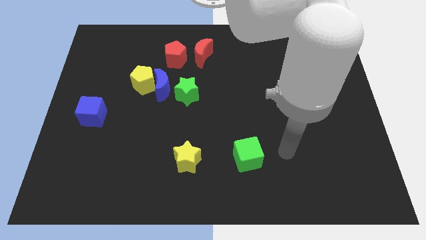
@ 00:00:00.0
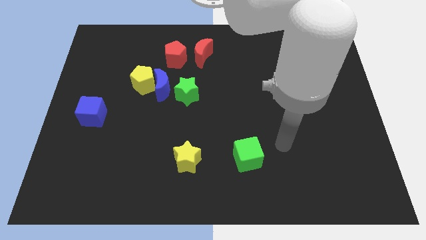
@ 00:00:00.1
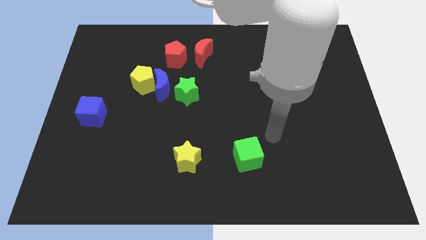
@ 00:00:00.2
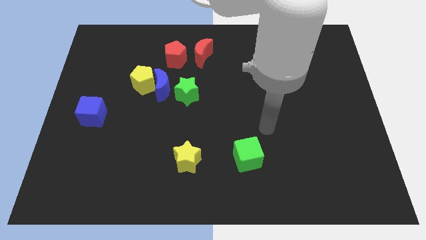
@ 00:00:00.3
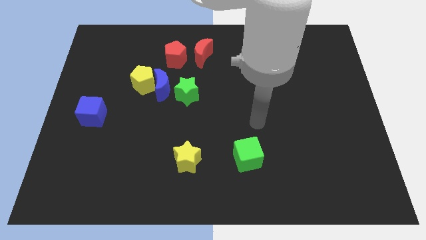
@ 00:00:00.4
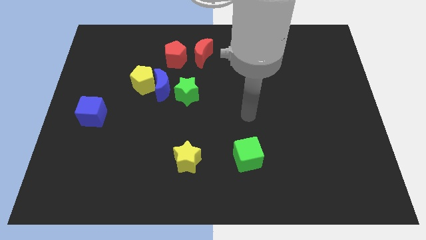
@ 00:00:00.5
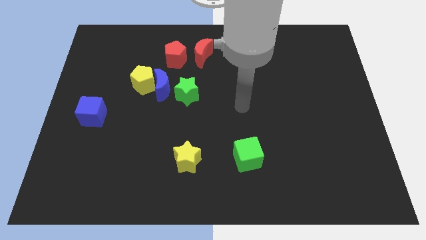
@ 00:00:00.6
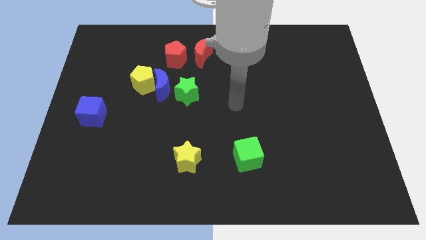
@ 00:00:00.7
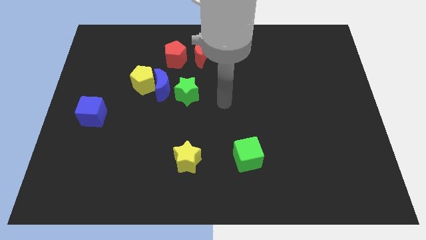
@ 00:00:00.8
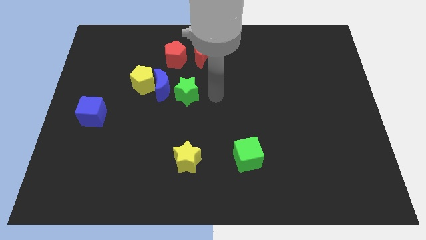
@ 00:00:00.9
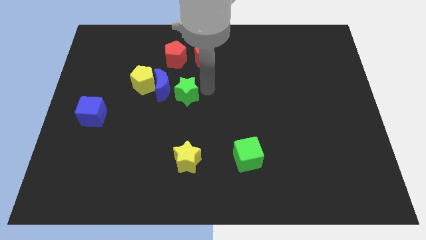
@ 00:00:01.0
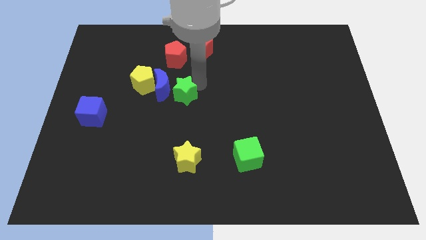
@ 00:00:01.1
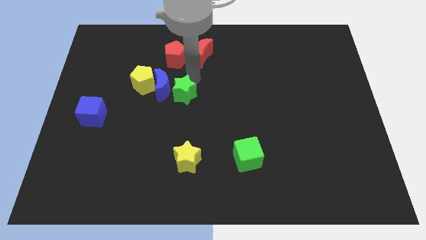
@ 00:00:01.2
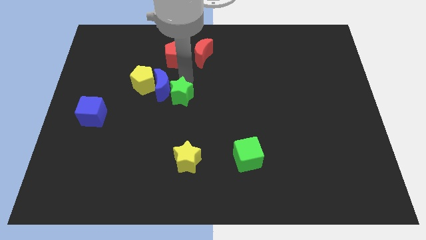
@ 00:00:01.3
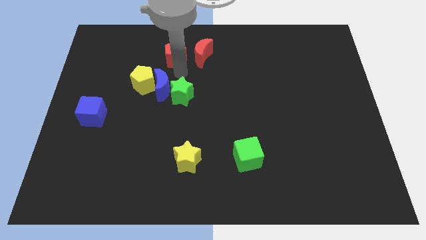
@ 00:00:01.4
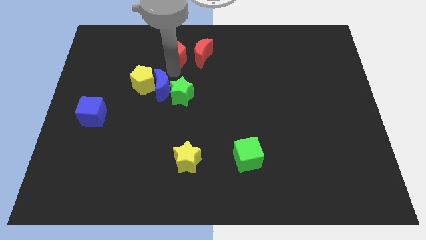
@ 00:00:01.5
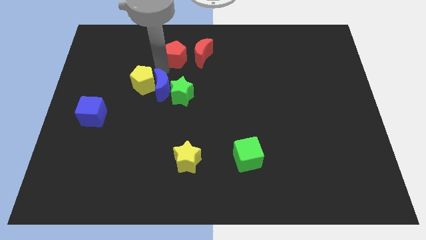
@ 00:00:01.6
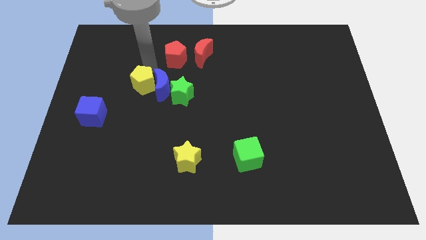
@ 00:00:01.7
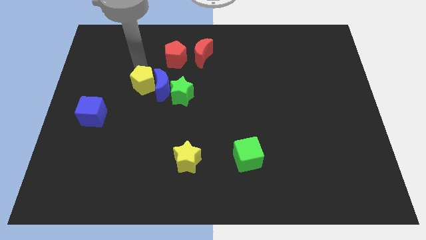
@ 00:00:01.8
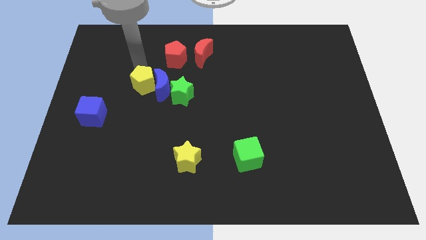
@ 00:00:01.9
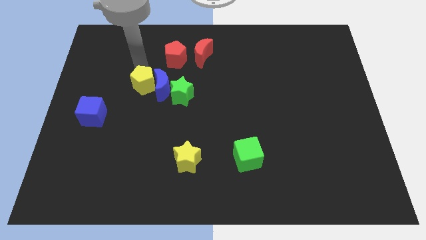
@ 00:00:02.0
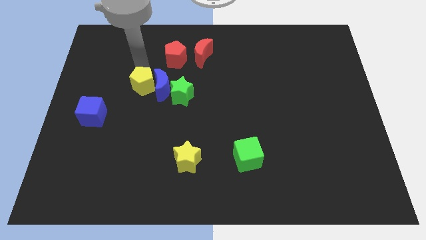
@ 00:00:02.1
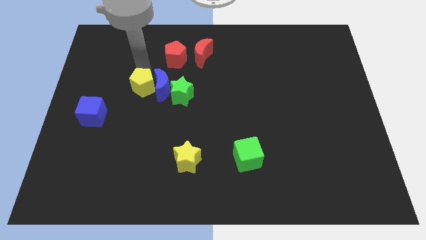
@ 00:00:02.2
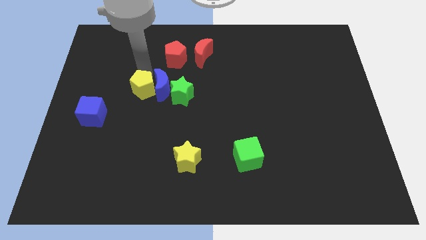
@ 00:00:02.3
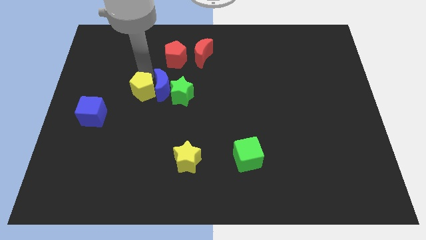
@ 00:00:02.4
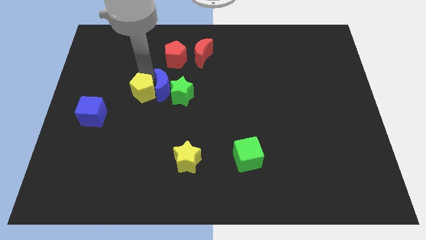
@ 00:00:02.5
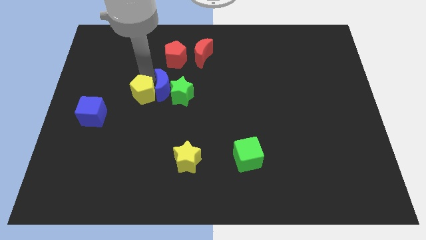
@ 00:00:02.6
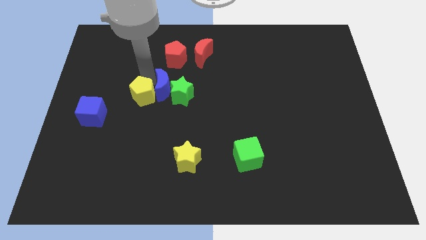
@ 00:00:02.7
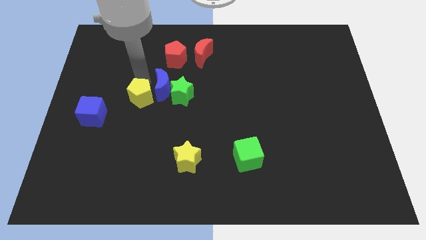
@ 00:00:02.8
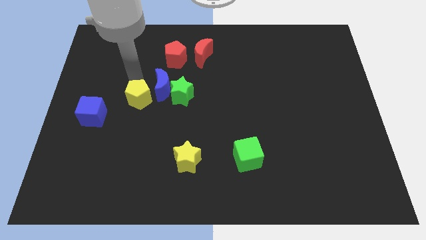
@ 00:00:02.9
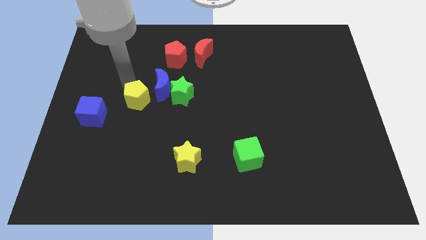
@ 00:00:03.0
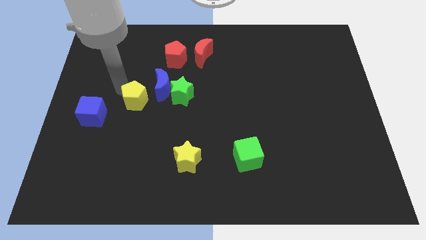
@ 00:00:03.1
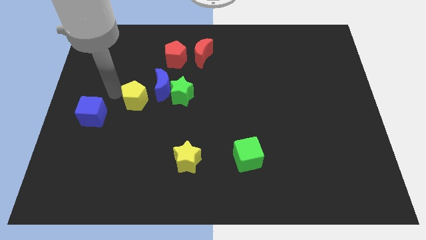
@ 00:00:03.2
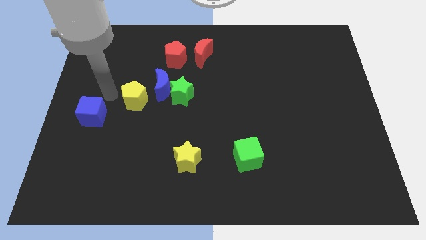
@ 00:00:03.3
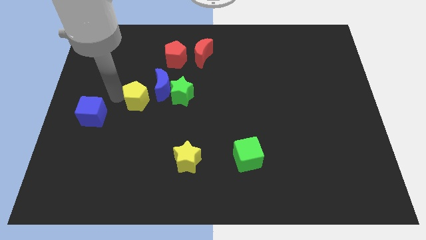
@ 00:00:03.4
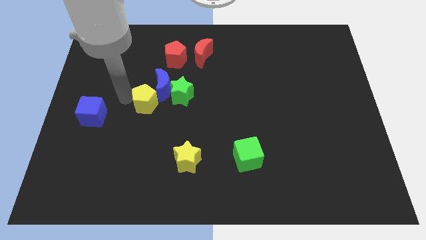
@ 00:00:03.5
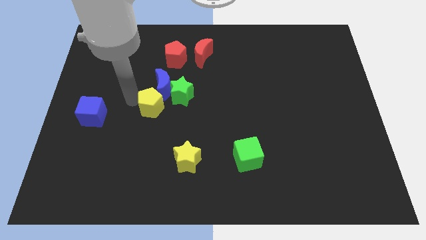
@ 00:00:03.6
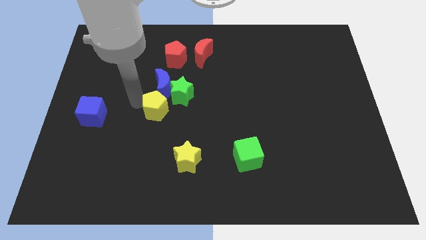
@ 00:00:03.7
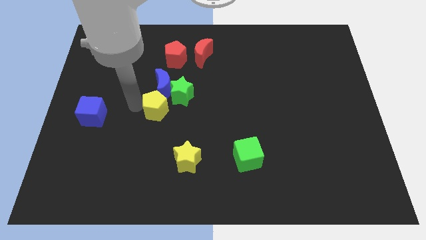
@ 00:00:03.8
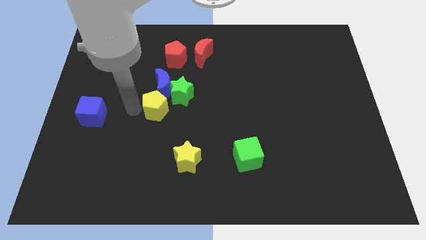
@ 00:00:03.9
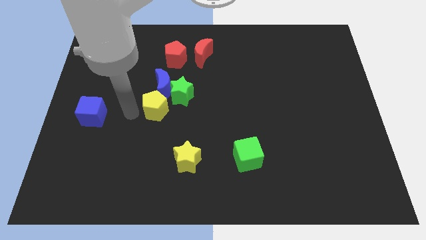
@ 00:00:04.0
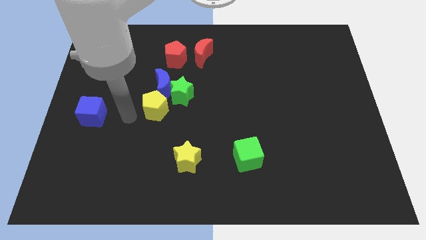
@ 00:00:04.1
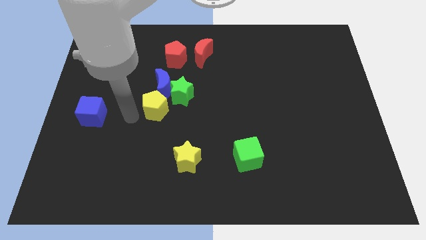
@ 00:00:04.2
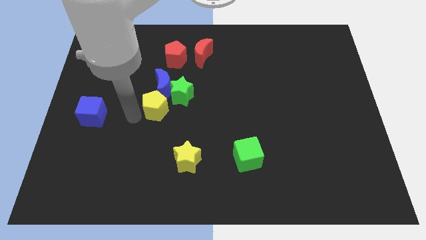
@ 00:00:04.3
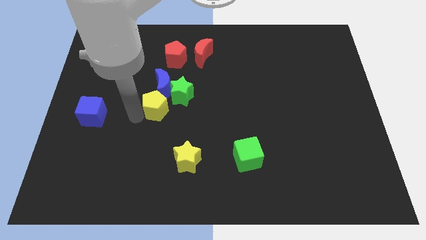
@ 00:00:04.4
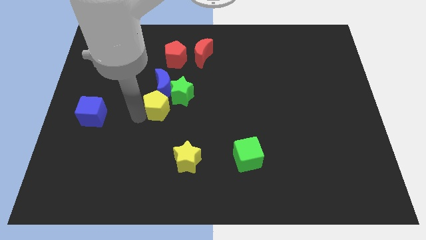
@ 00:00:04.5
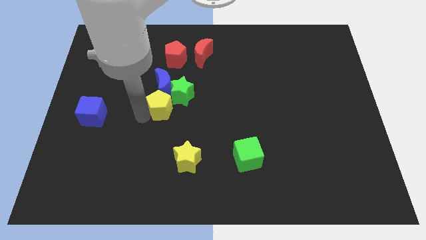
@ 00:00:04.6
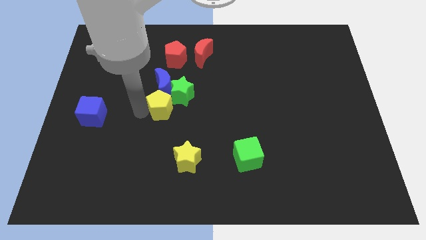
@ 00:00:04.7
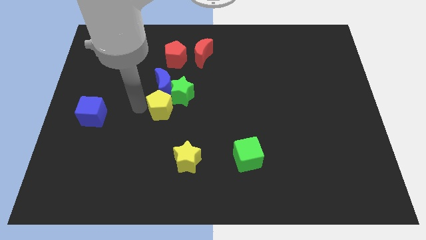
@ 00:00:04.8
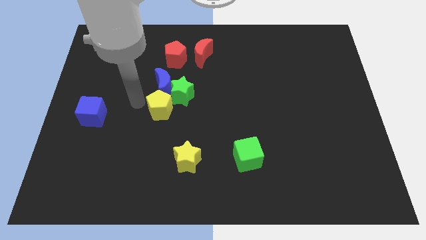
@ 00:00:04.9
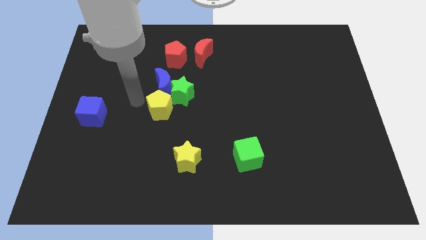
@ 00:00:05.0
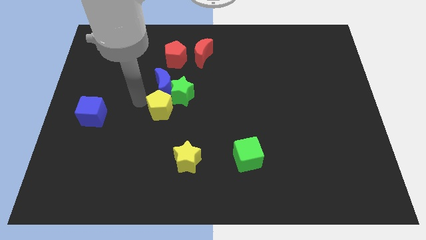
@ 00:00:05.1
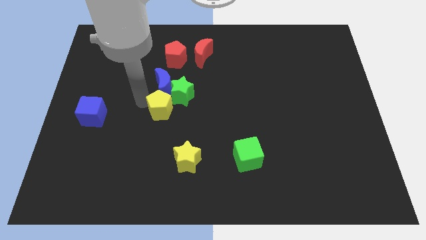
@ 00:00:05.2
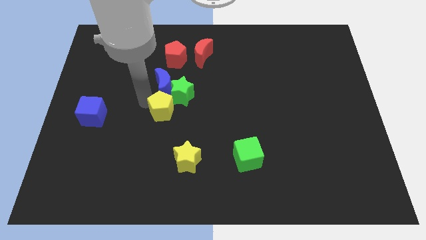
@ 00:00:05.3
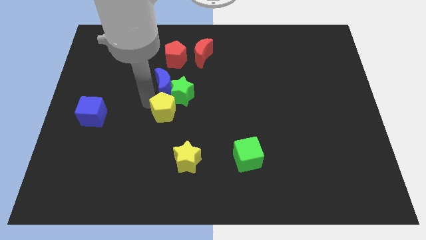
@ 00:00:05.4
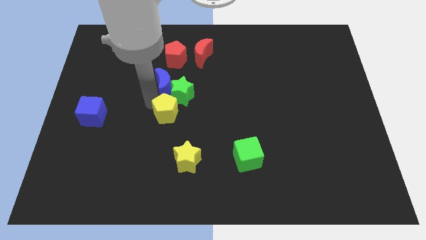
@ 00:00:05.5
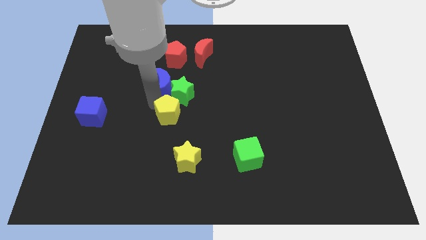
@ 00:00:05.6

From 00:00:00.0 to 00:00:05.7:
put the yellow pentagon above the yellow star

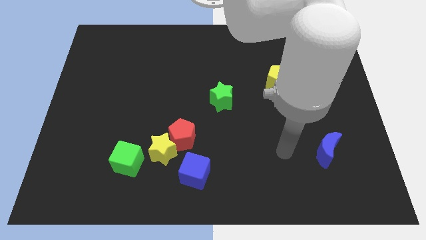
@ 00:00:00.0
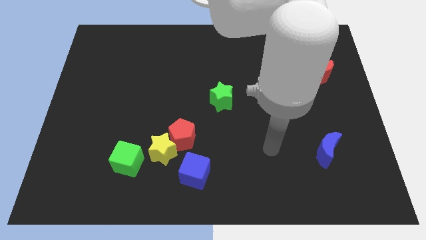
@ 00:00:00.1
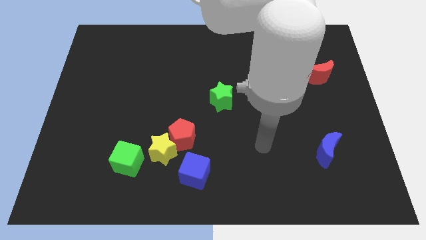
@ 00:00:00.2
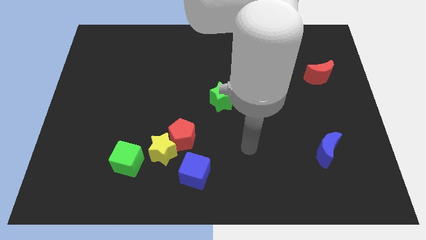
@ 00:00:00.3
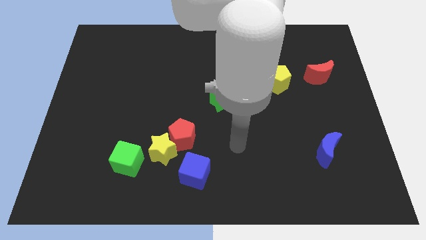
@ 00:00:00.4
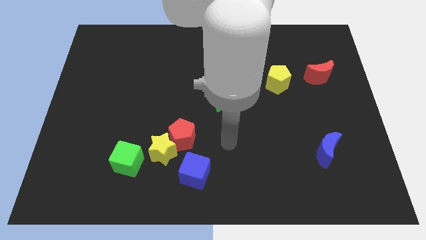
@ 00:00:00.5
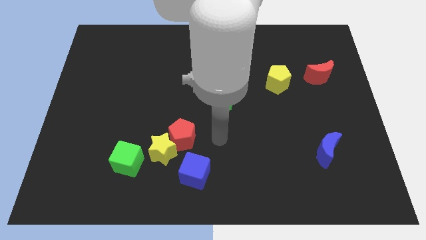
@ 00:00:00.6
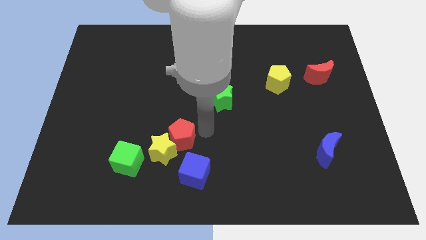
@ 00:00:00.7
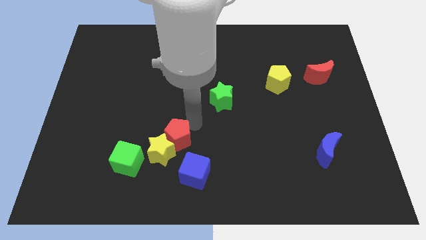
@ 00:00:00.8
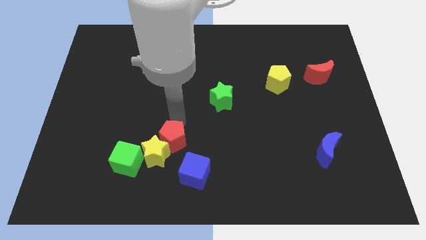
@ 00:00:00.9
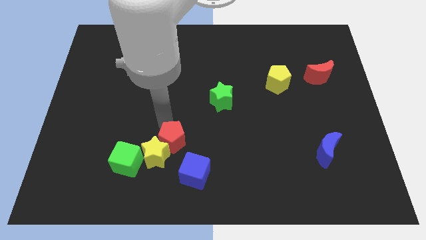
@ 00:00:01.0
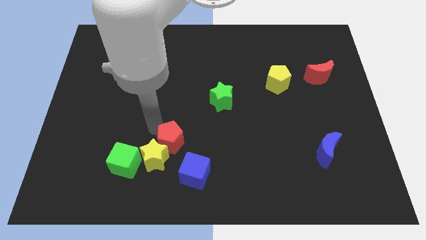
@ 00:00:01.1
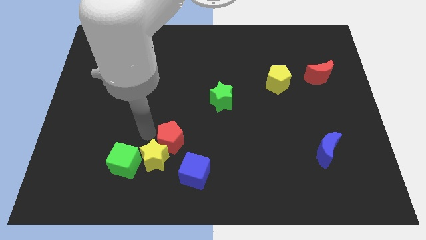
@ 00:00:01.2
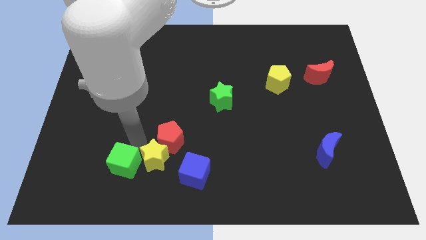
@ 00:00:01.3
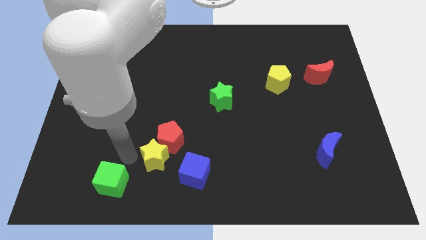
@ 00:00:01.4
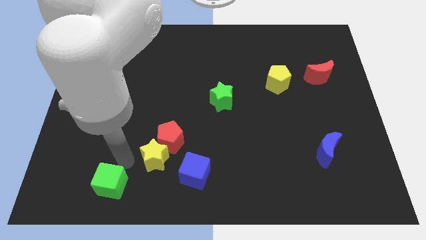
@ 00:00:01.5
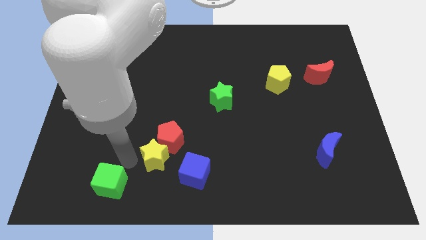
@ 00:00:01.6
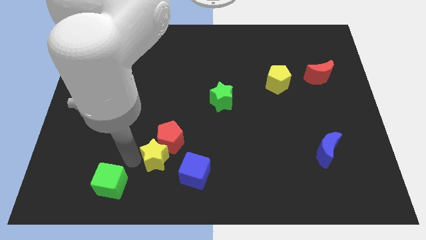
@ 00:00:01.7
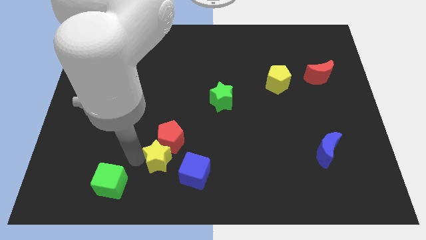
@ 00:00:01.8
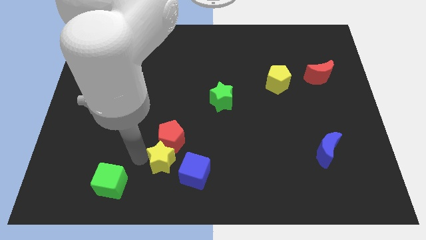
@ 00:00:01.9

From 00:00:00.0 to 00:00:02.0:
slide the yellow star to the bottom right of the red pentagon

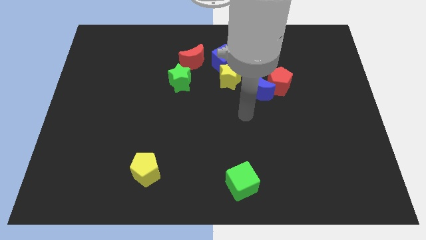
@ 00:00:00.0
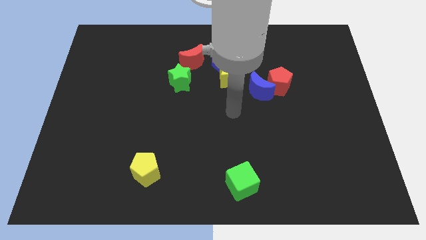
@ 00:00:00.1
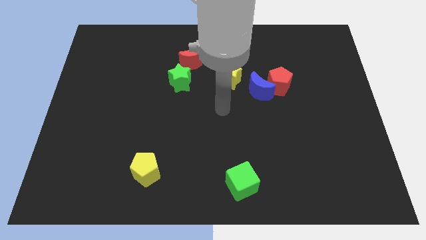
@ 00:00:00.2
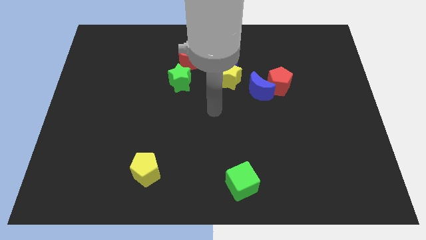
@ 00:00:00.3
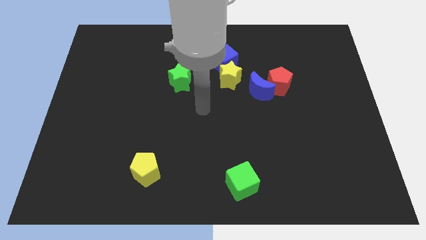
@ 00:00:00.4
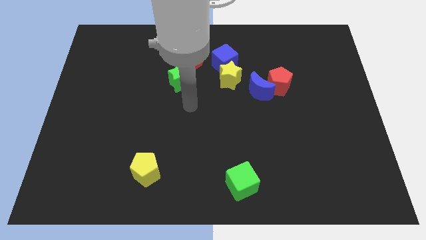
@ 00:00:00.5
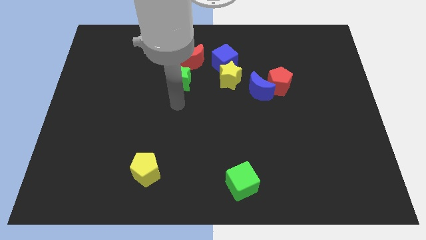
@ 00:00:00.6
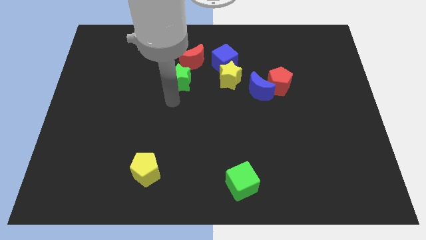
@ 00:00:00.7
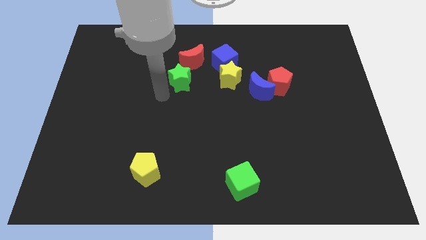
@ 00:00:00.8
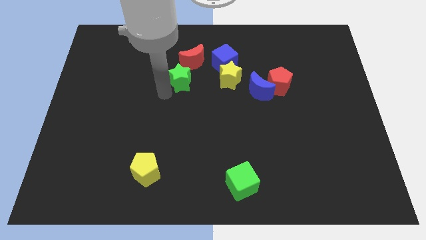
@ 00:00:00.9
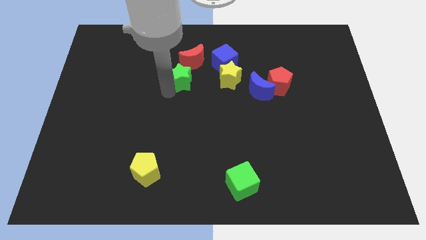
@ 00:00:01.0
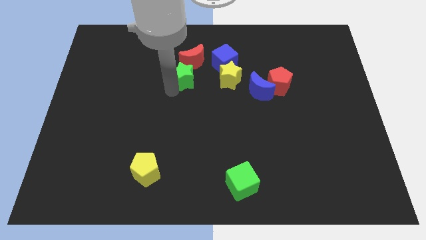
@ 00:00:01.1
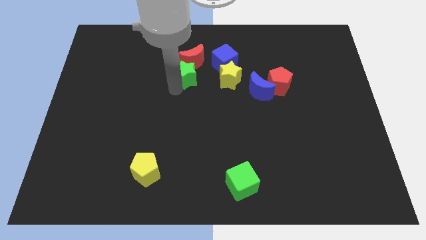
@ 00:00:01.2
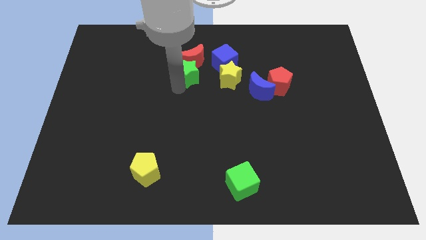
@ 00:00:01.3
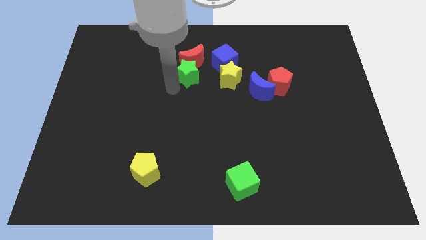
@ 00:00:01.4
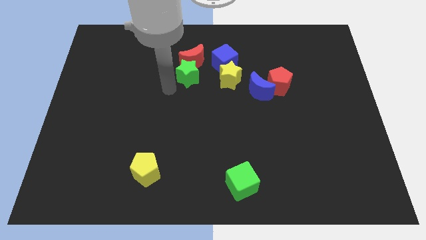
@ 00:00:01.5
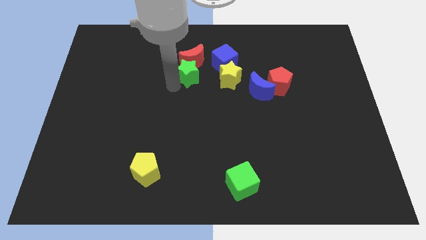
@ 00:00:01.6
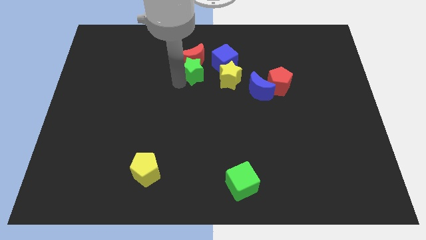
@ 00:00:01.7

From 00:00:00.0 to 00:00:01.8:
move the green star diagonally up and to the left of the yellow star
